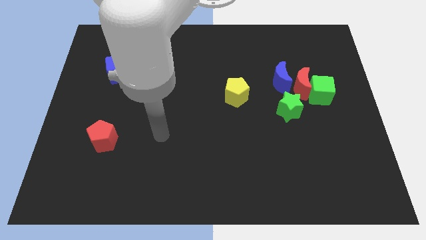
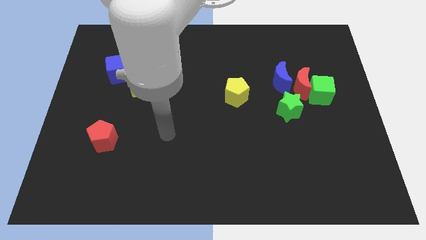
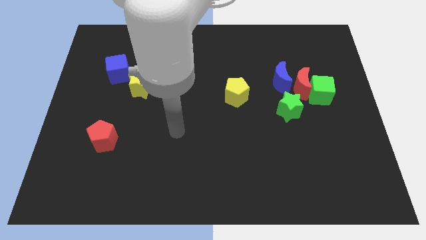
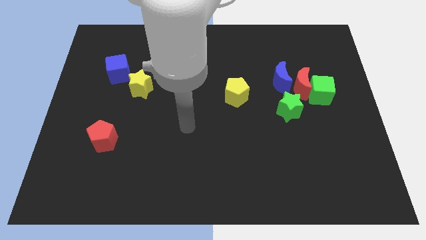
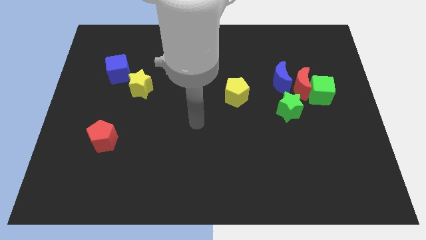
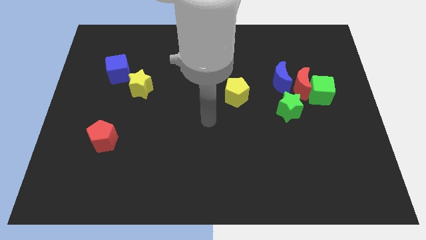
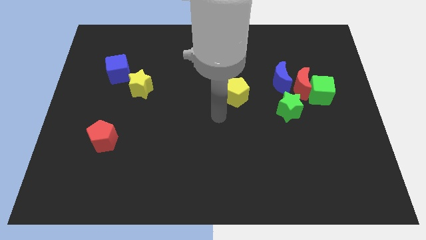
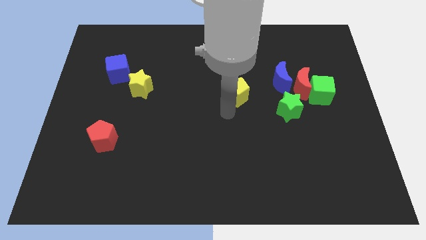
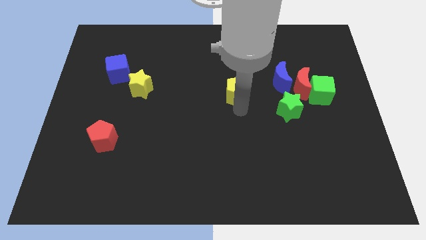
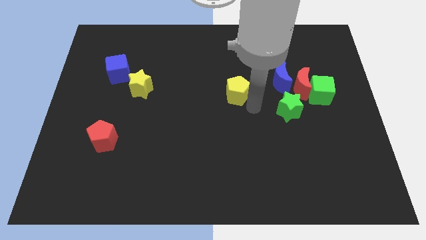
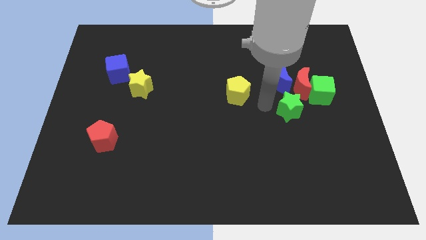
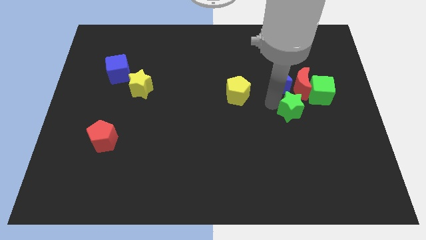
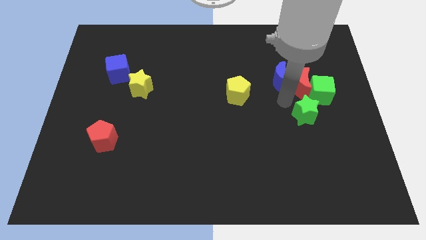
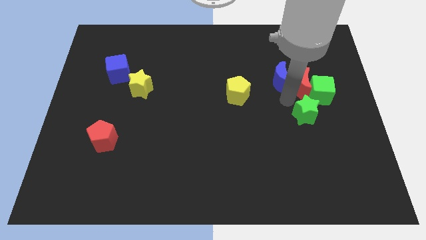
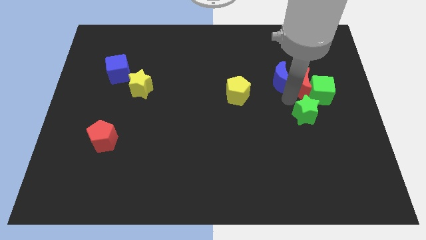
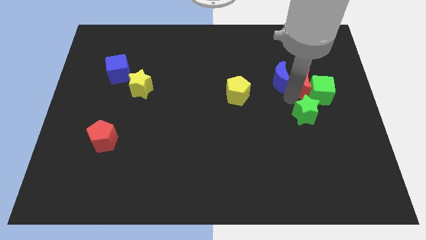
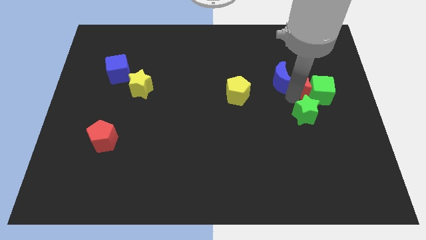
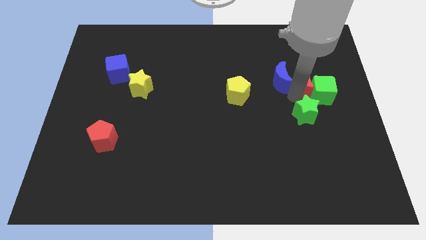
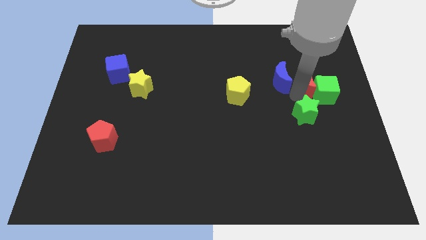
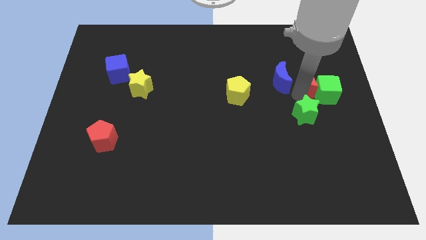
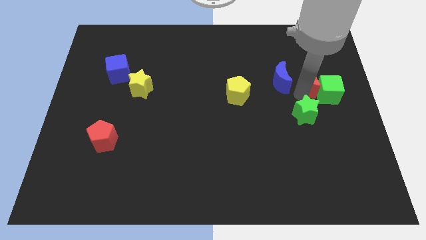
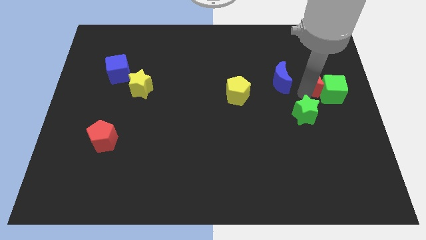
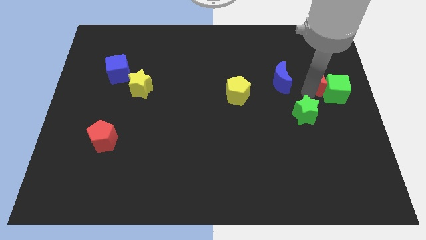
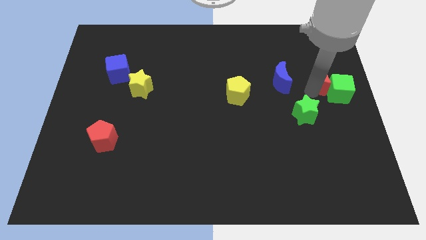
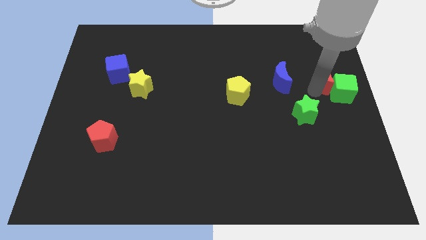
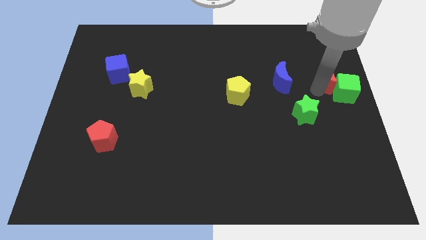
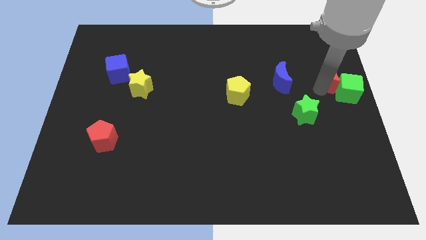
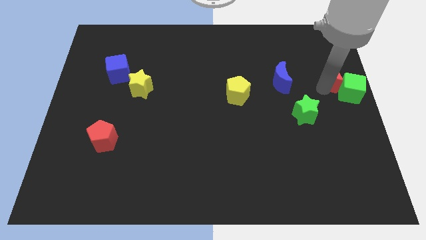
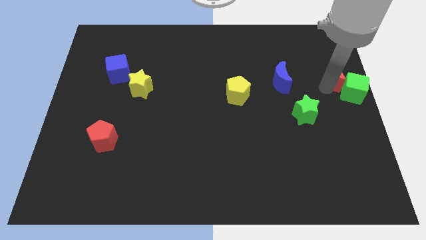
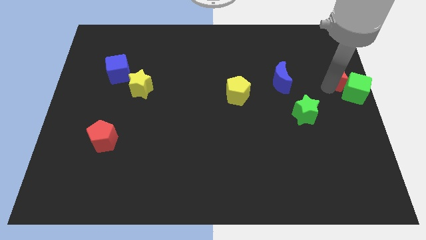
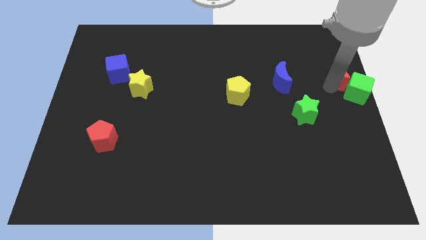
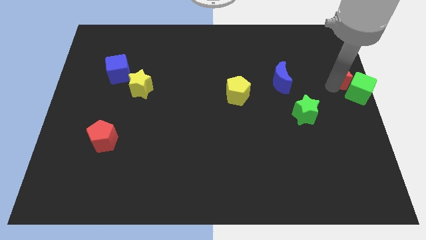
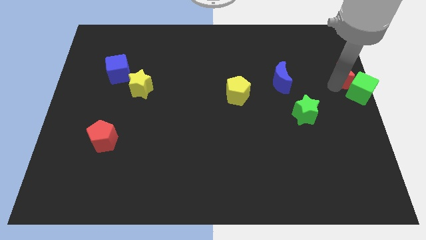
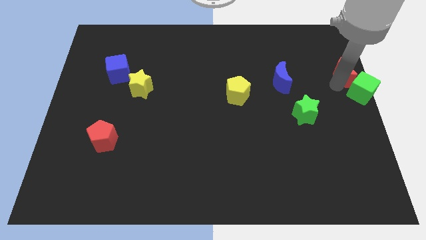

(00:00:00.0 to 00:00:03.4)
move the red moon away from the green cube, blue moon, and green star

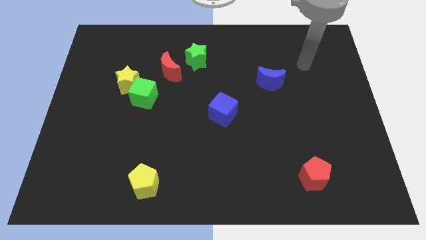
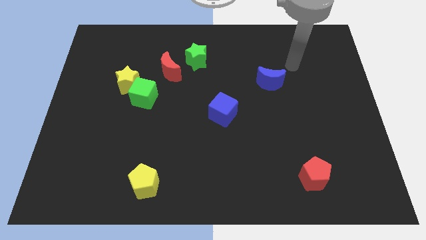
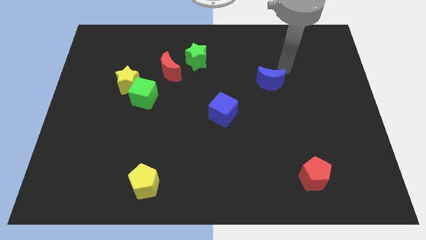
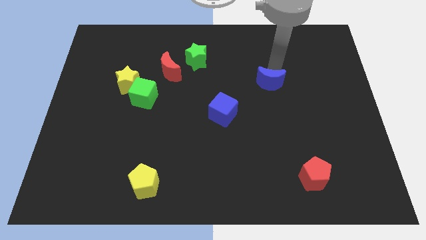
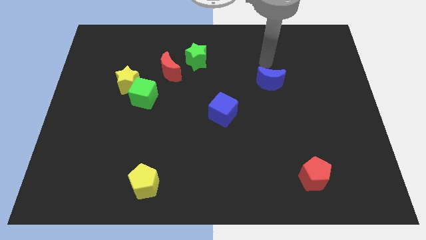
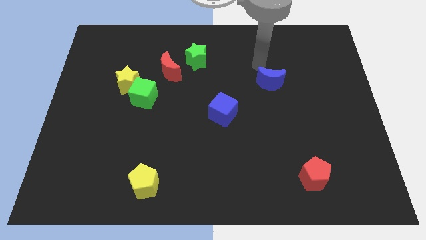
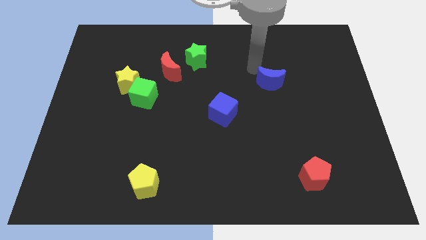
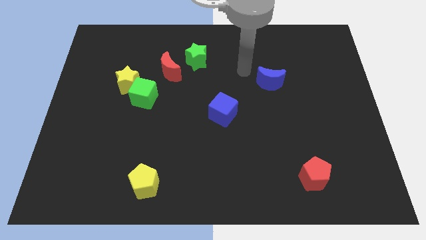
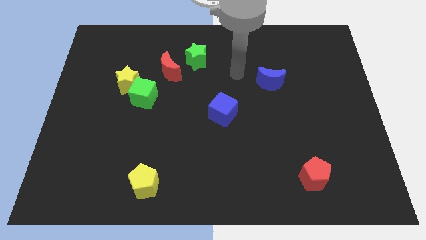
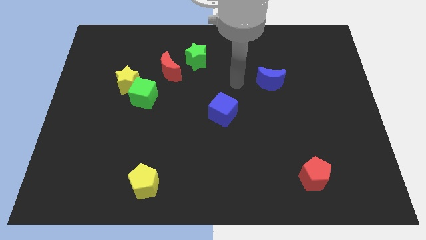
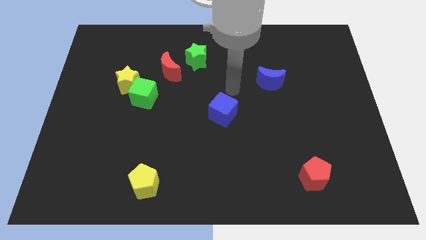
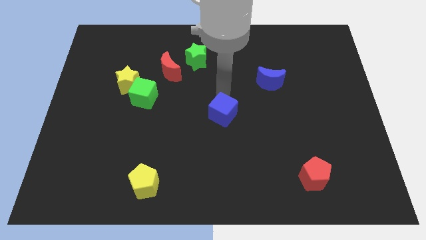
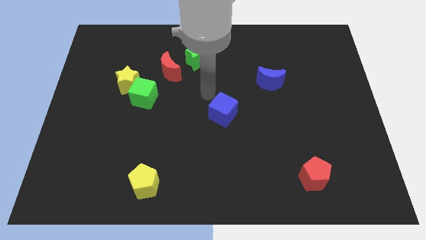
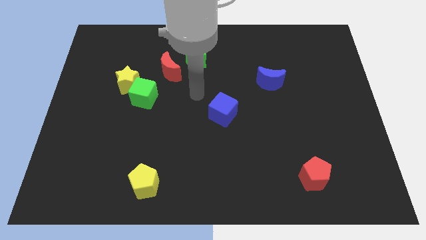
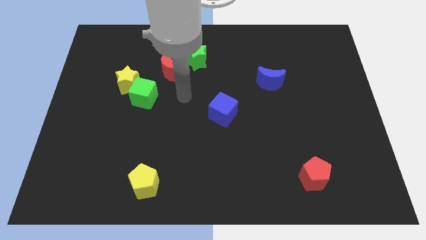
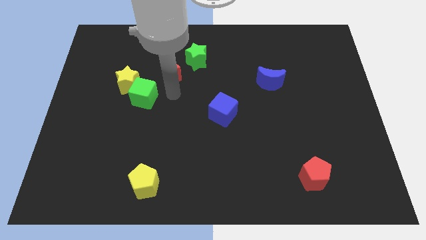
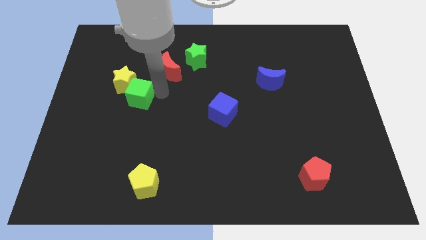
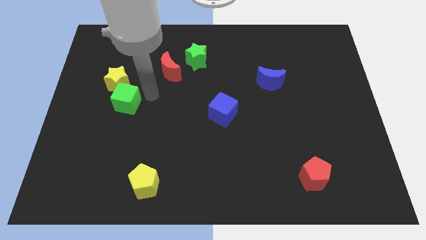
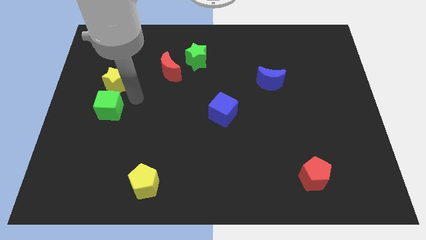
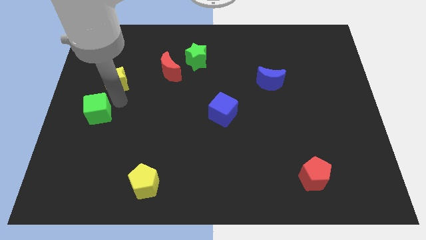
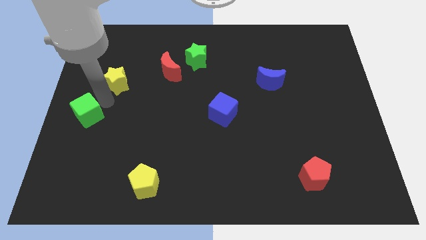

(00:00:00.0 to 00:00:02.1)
move the yellow star away from the green cube

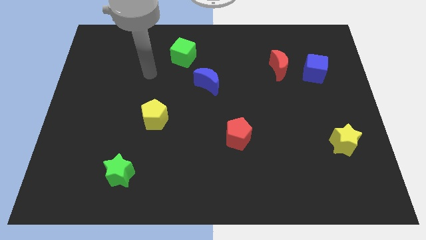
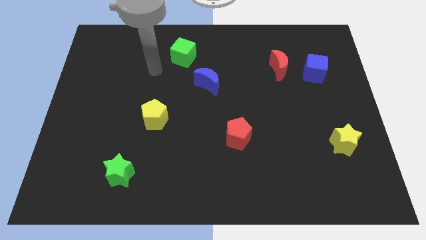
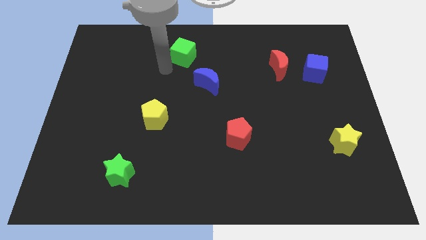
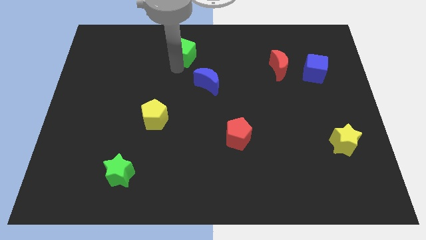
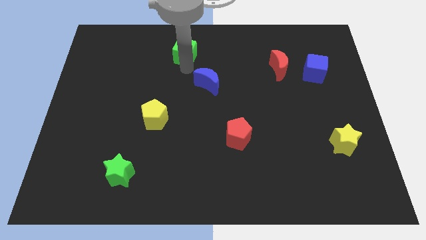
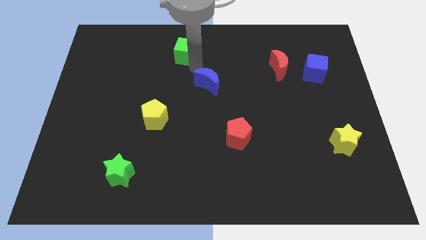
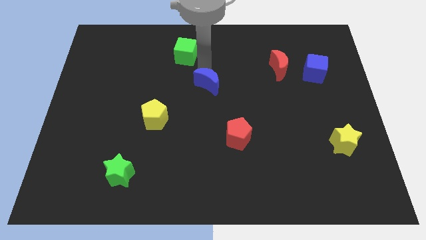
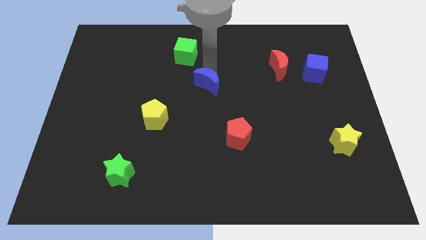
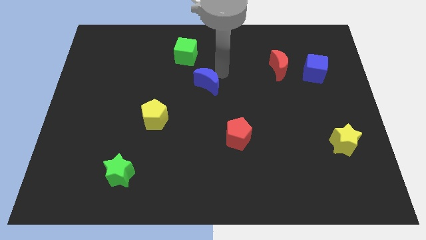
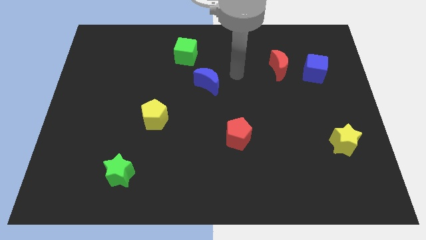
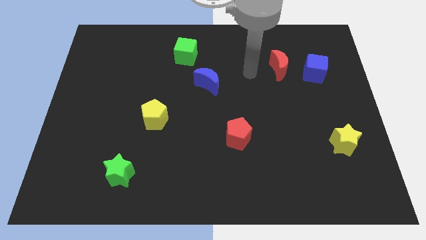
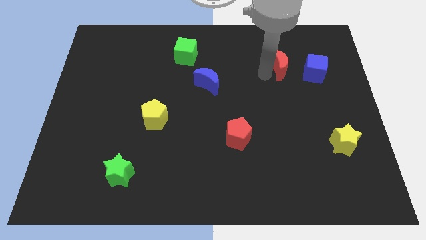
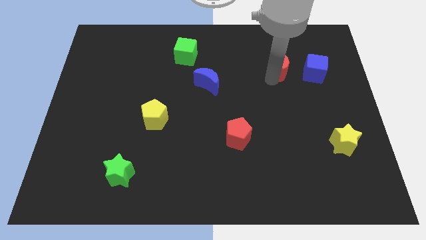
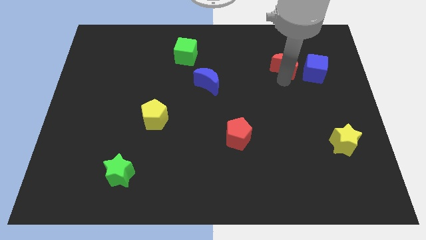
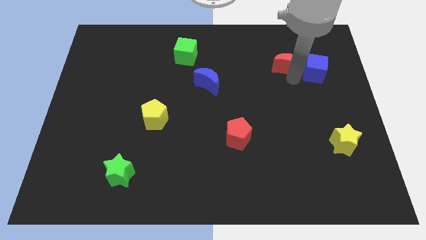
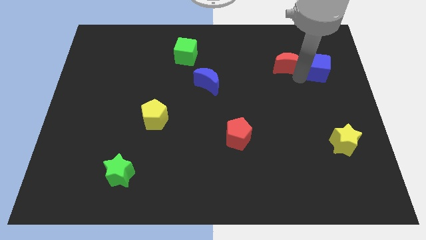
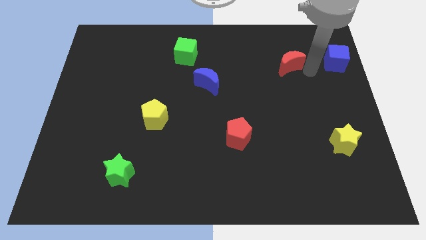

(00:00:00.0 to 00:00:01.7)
move the red moon away from the blue cube

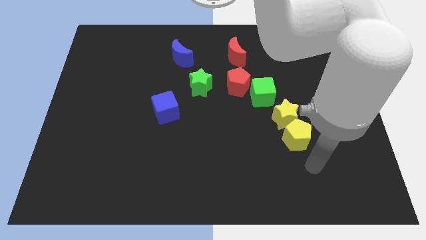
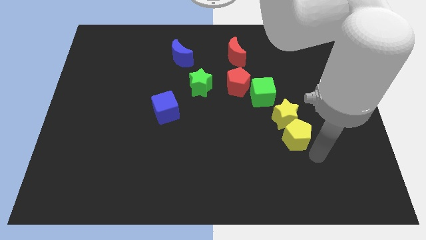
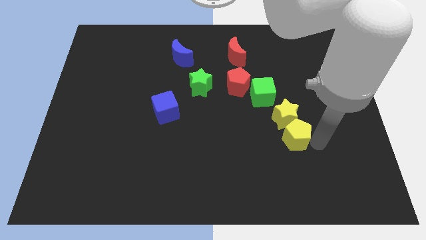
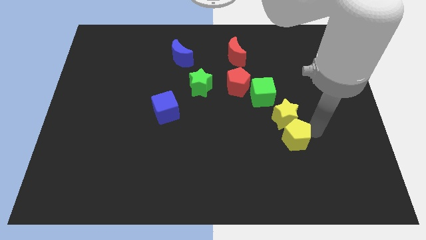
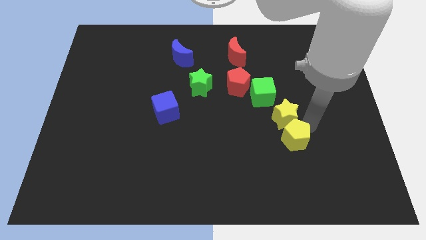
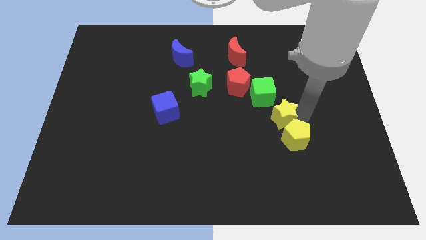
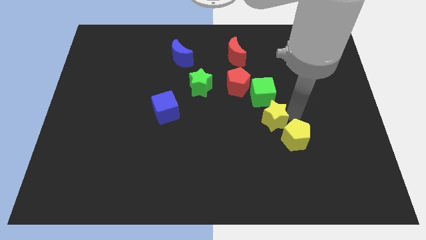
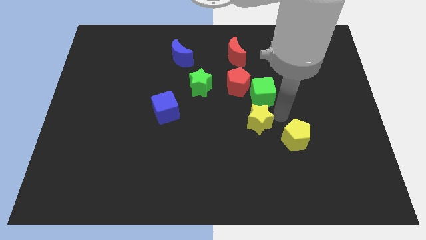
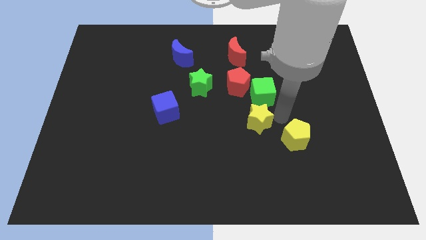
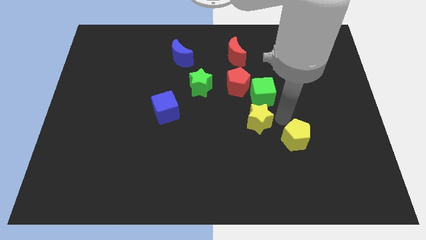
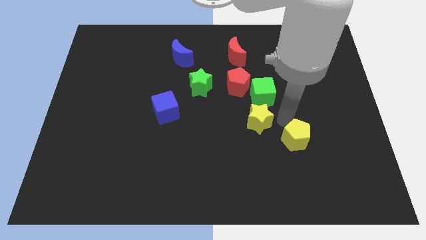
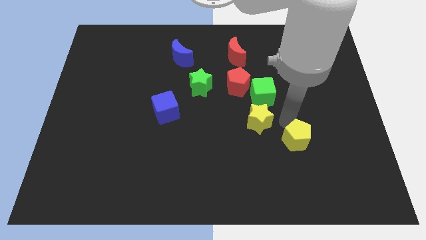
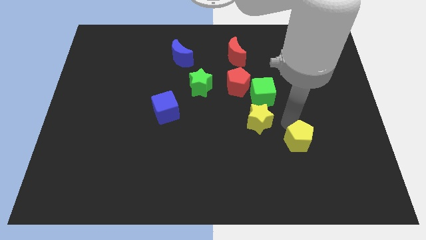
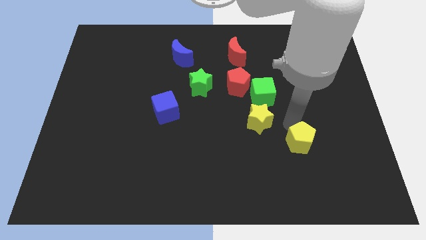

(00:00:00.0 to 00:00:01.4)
separate the yellow pentagon from the yellow star

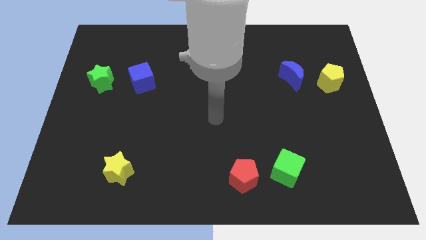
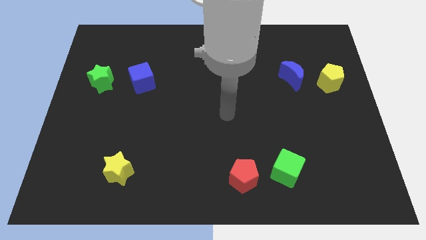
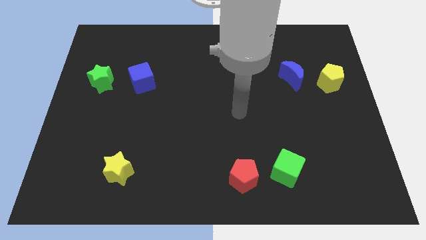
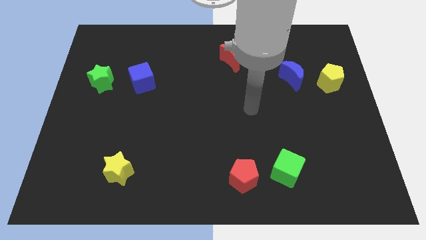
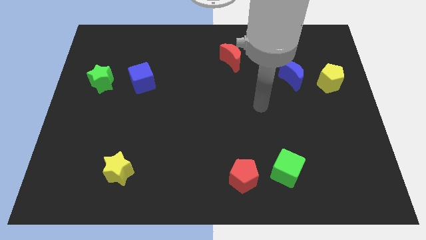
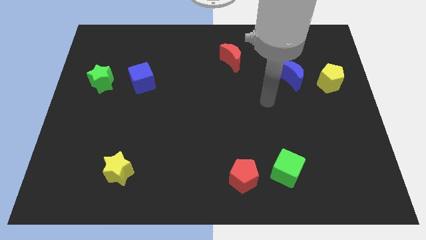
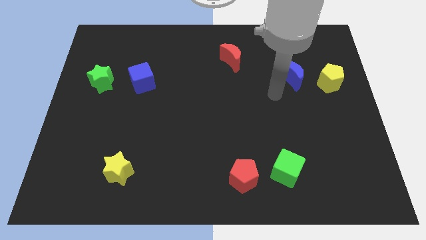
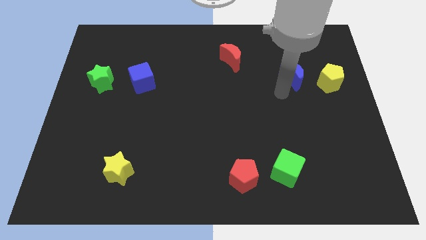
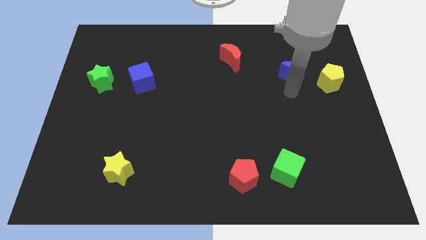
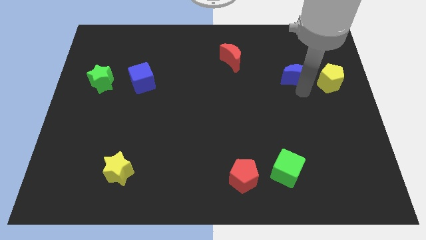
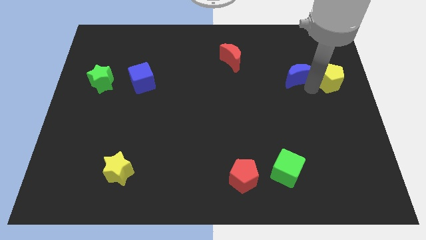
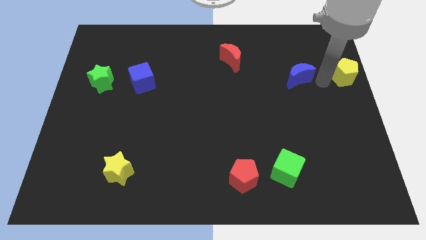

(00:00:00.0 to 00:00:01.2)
move the blue moon away from the yellow pentagon
